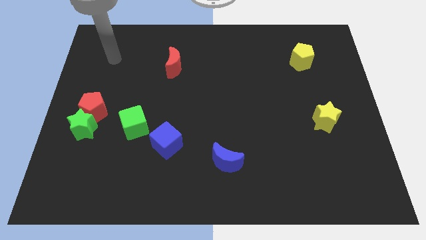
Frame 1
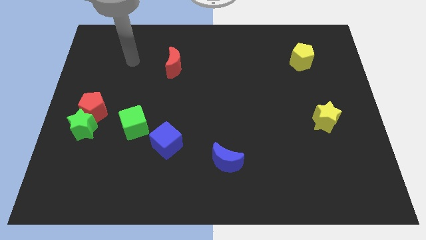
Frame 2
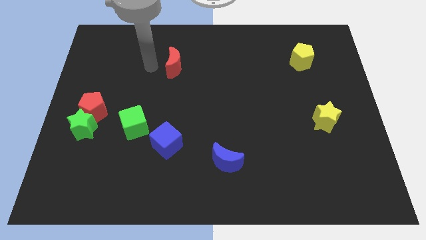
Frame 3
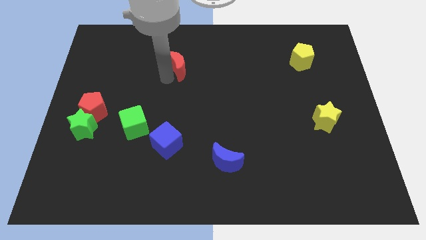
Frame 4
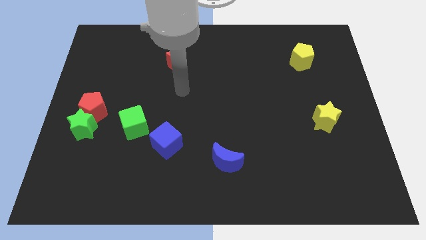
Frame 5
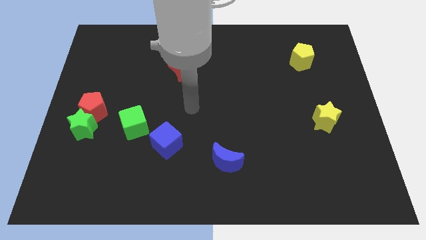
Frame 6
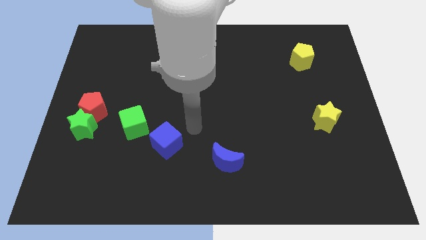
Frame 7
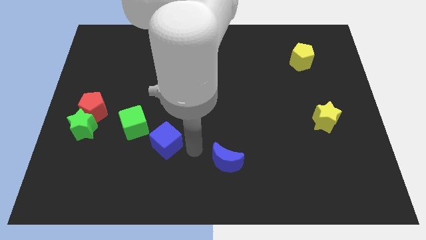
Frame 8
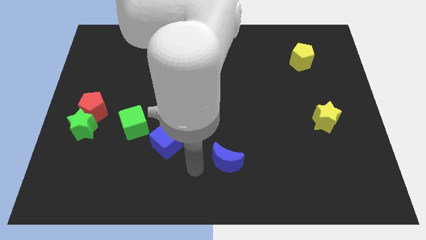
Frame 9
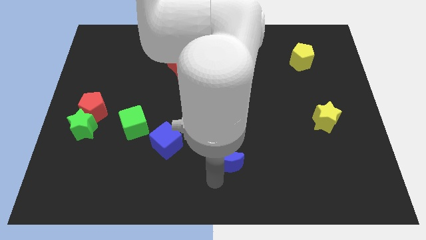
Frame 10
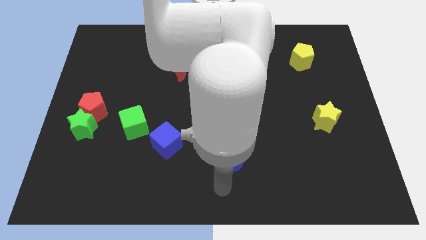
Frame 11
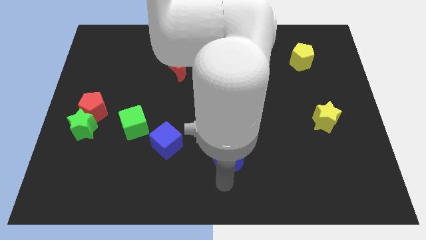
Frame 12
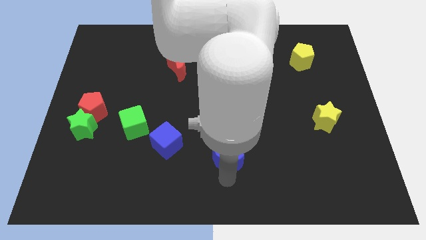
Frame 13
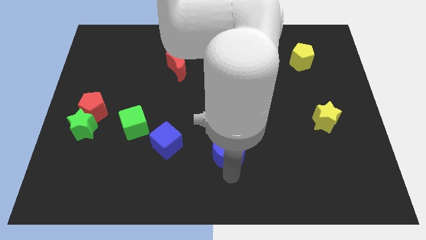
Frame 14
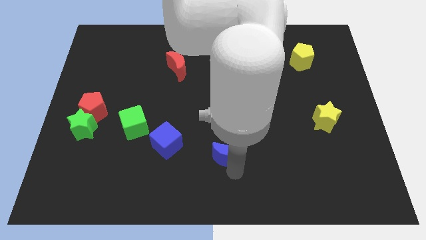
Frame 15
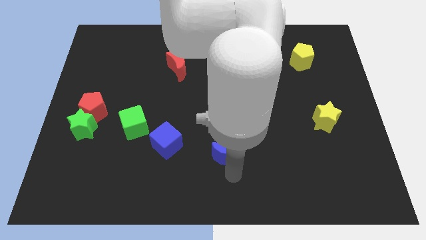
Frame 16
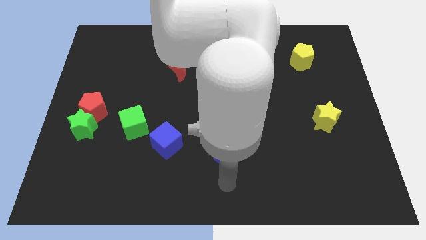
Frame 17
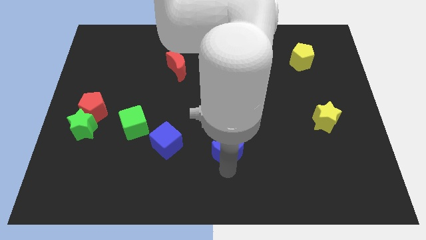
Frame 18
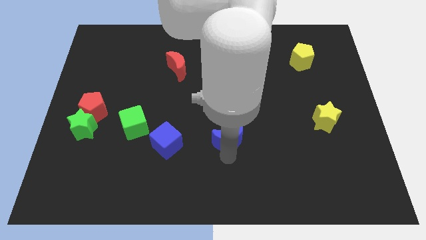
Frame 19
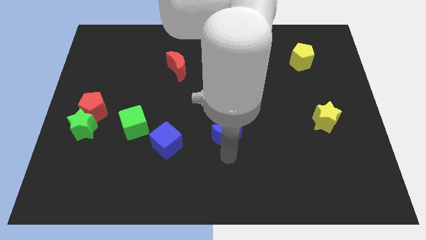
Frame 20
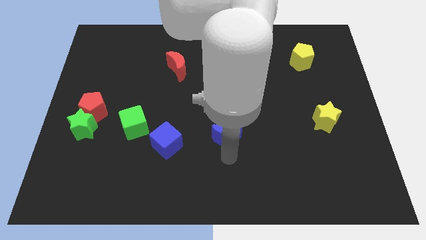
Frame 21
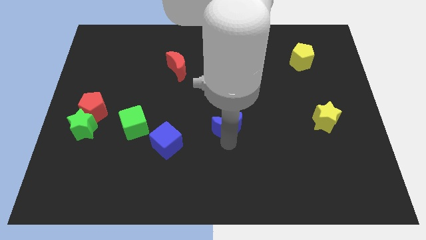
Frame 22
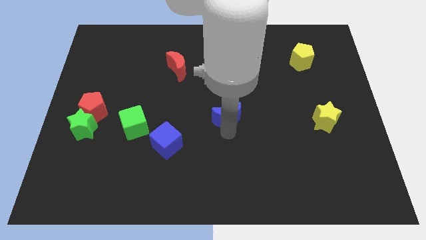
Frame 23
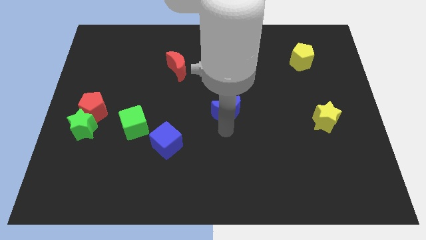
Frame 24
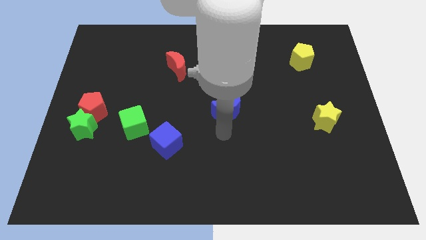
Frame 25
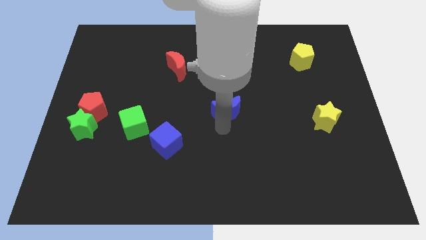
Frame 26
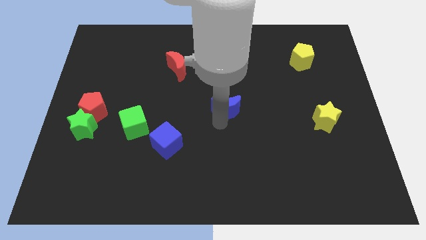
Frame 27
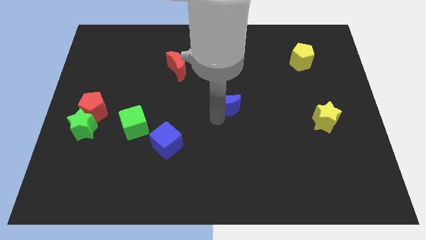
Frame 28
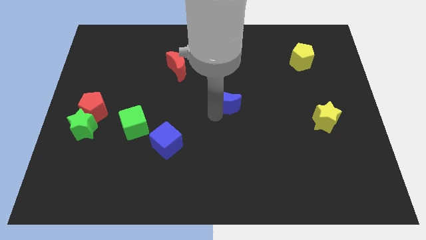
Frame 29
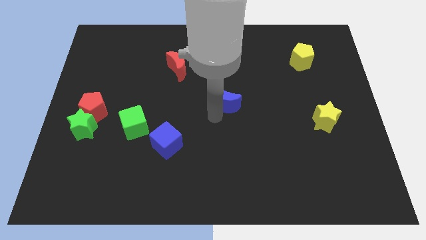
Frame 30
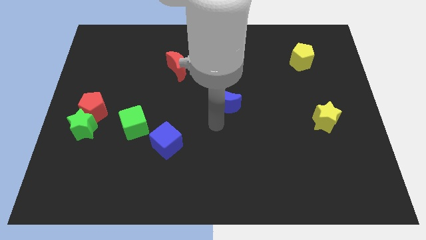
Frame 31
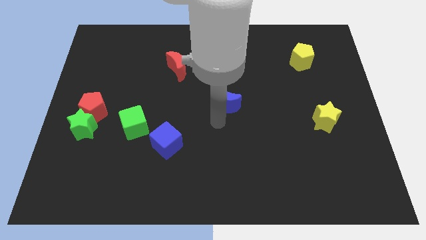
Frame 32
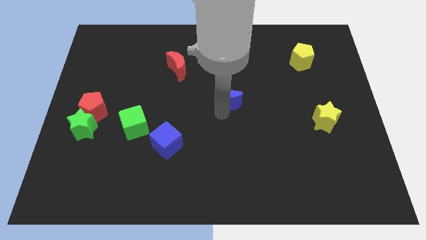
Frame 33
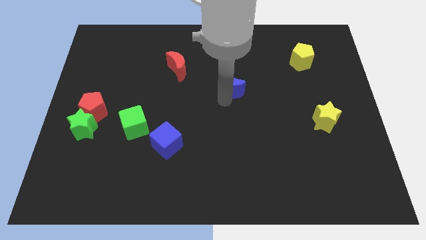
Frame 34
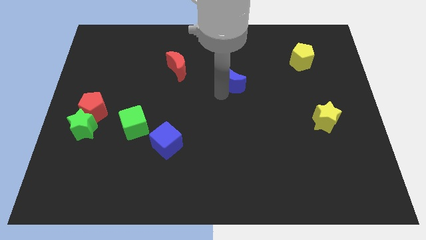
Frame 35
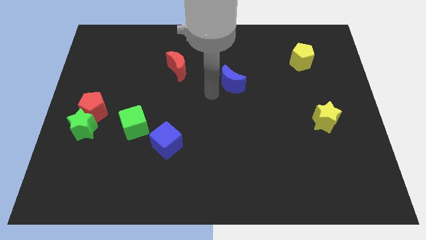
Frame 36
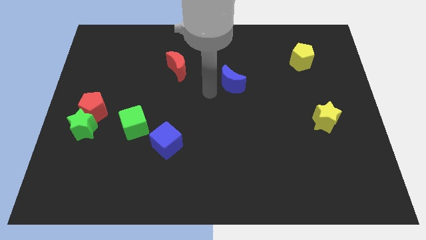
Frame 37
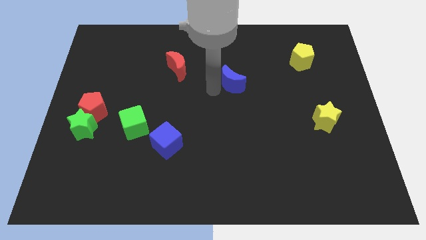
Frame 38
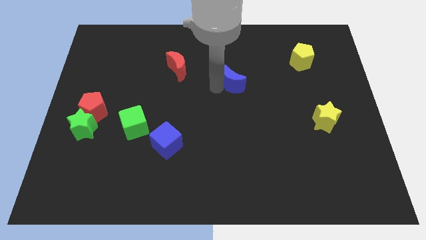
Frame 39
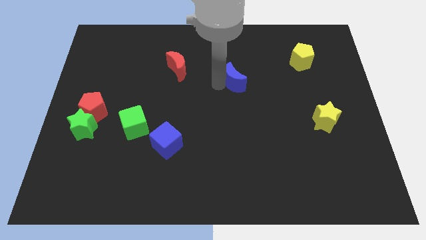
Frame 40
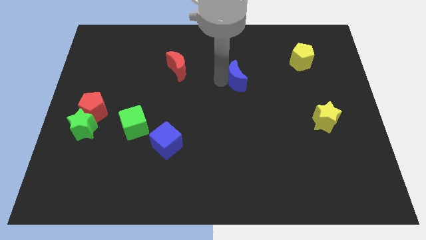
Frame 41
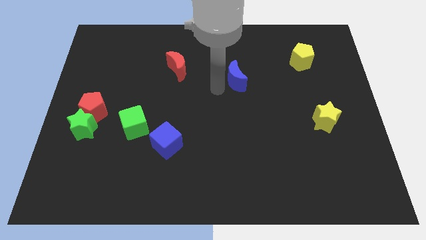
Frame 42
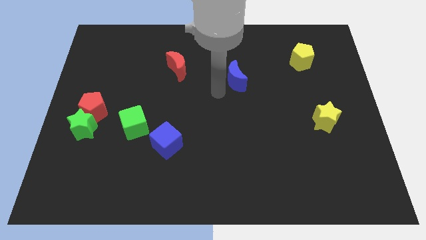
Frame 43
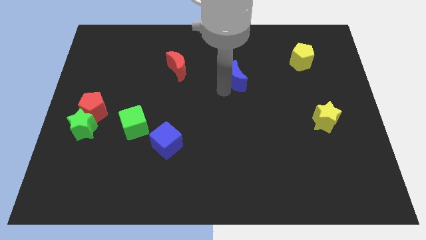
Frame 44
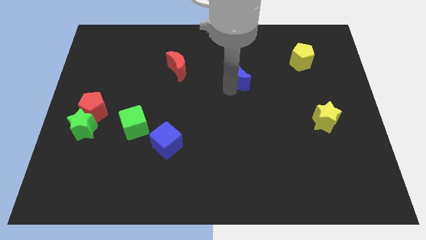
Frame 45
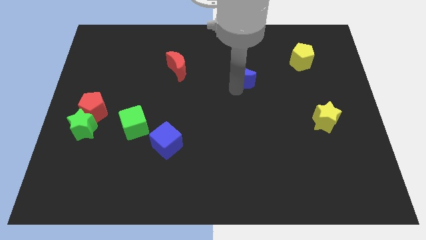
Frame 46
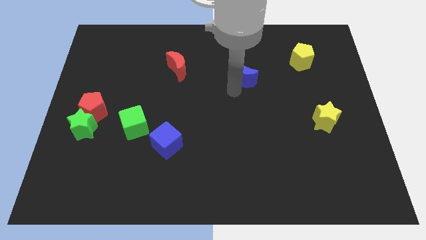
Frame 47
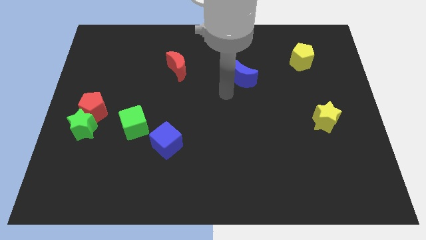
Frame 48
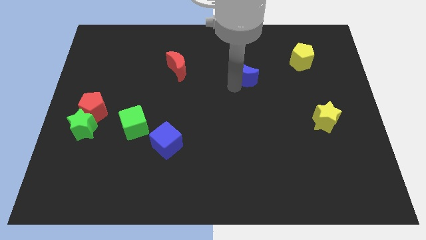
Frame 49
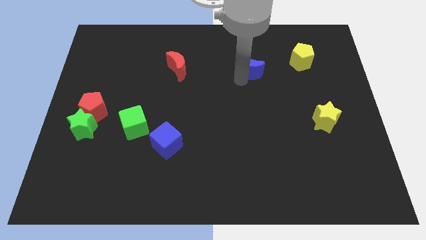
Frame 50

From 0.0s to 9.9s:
push the blue moon to the left side of the yellow pentagon

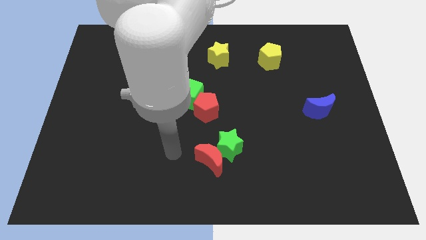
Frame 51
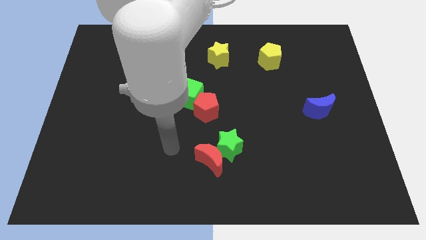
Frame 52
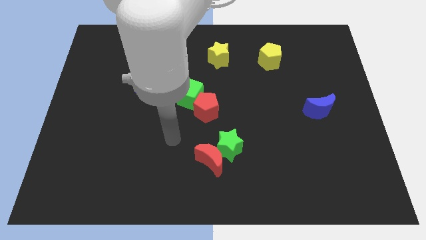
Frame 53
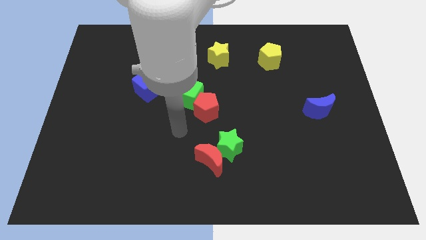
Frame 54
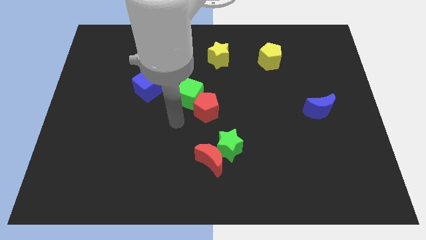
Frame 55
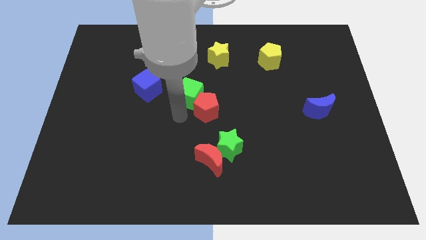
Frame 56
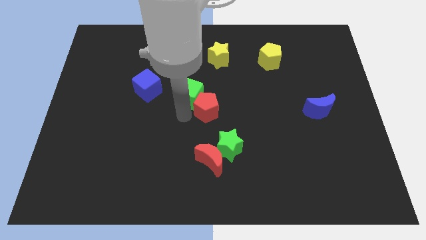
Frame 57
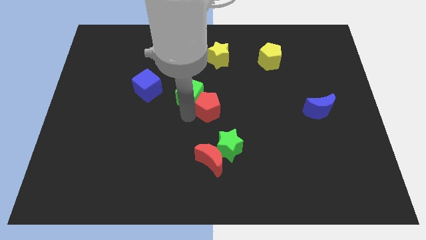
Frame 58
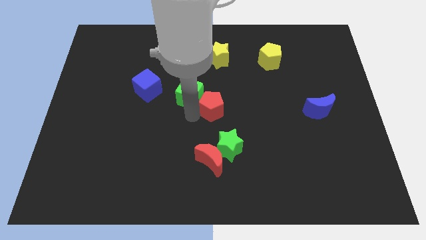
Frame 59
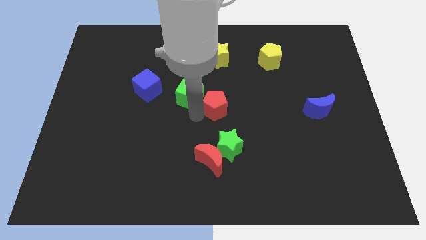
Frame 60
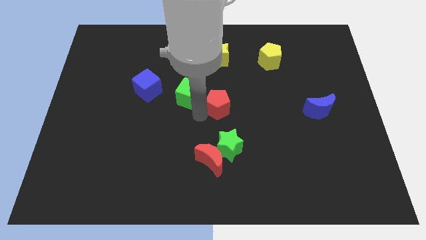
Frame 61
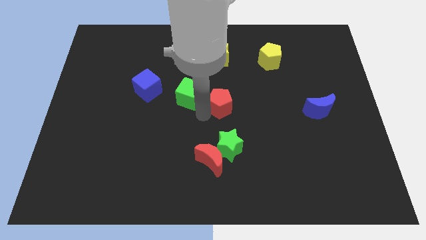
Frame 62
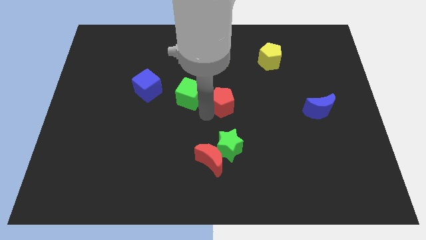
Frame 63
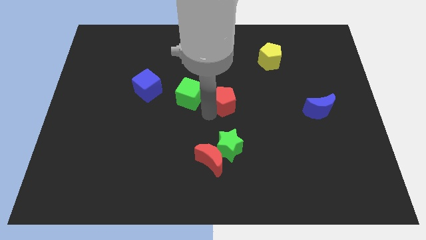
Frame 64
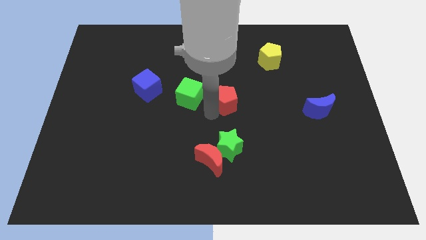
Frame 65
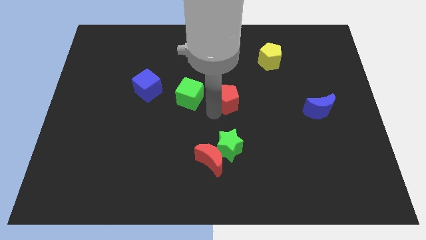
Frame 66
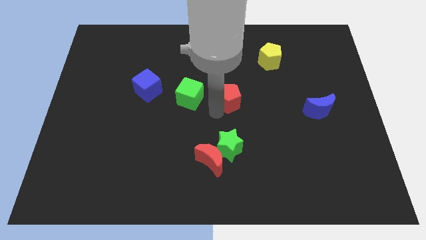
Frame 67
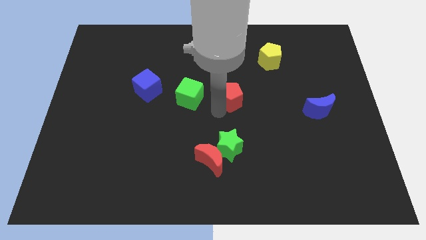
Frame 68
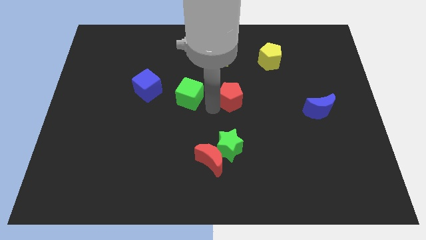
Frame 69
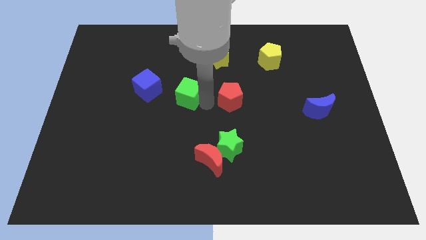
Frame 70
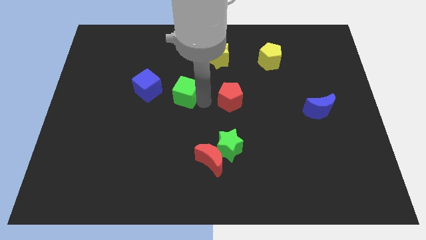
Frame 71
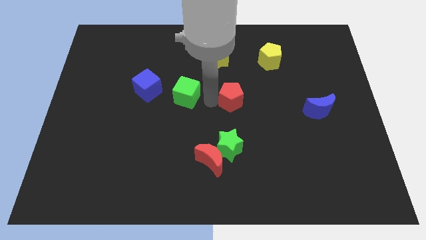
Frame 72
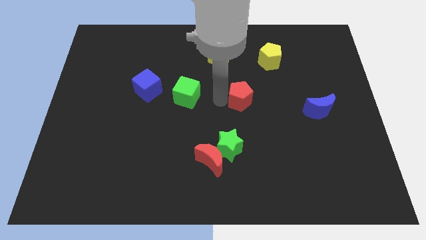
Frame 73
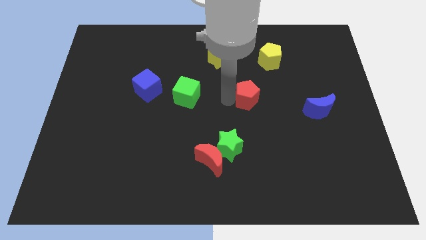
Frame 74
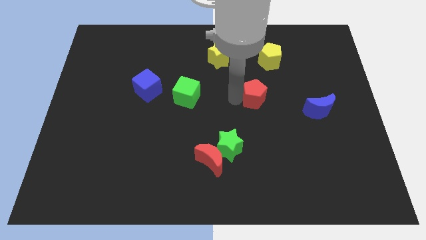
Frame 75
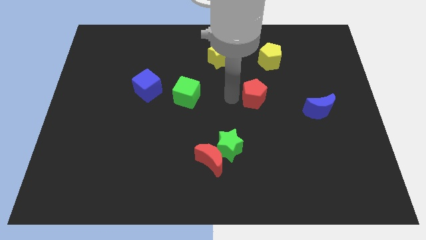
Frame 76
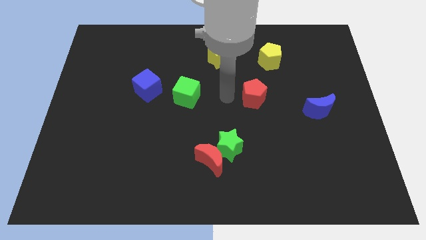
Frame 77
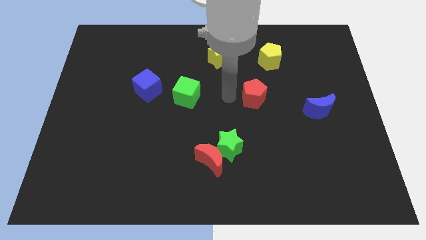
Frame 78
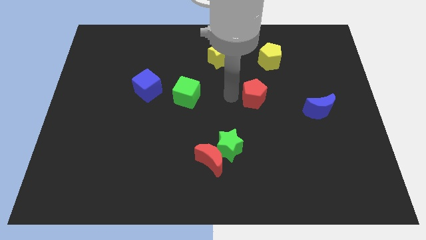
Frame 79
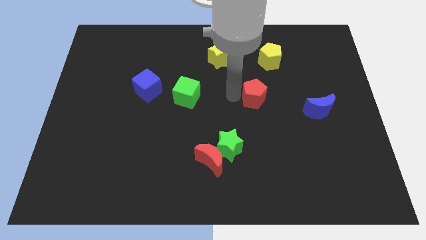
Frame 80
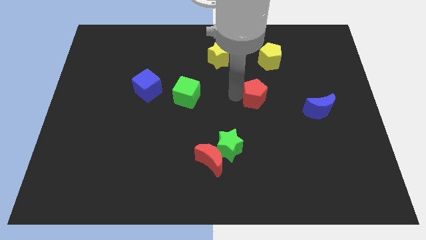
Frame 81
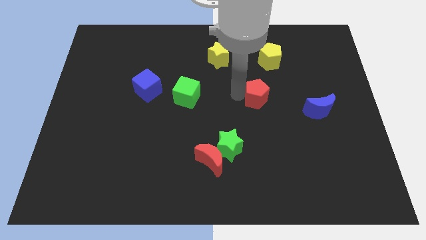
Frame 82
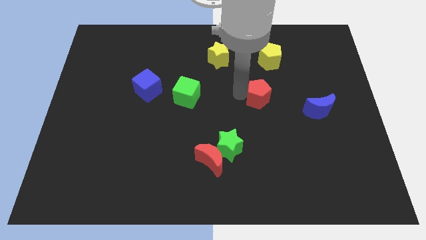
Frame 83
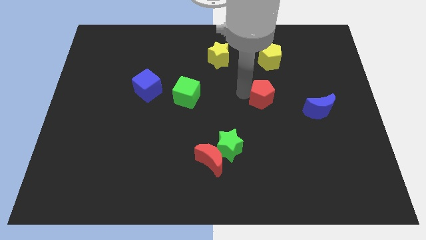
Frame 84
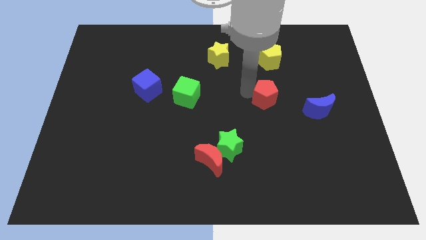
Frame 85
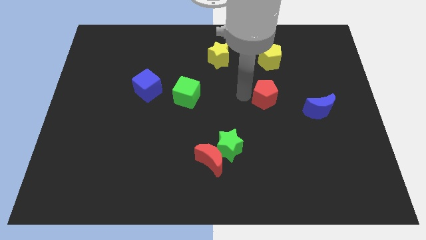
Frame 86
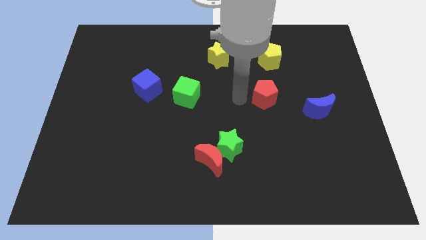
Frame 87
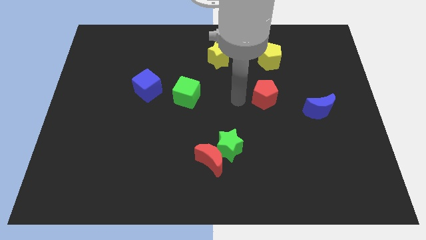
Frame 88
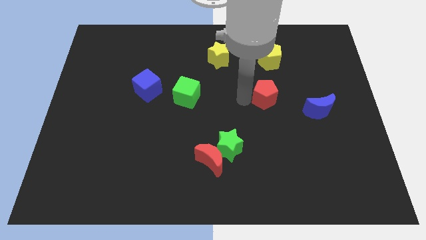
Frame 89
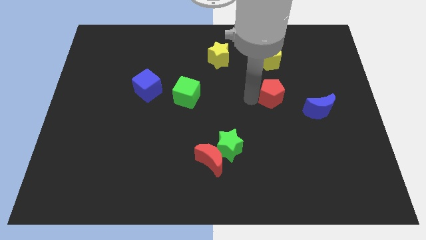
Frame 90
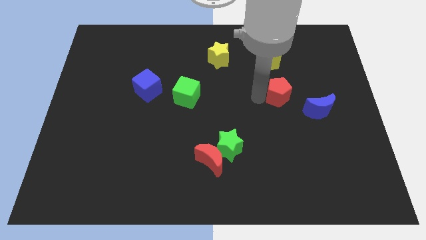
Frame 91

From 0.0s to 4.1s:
push the red pentagon diagonally up and to the left of the blue moon
